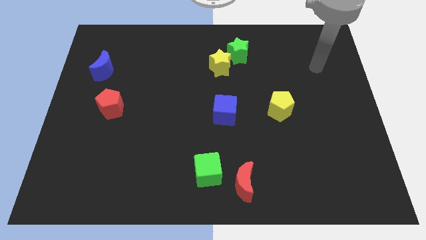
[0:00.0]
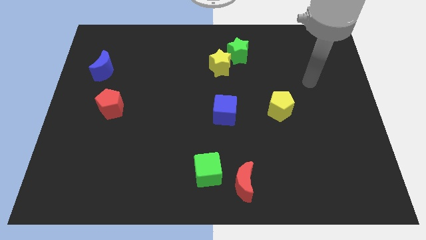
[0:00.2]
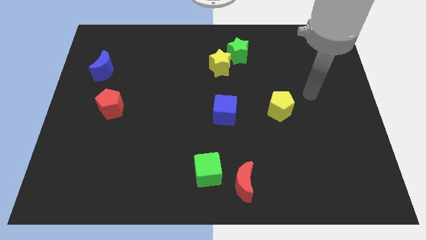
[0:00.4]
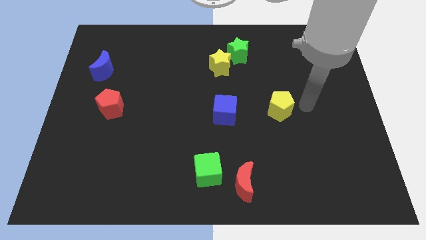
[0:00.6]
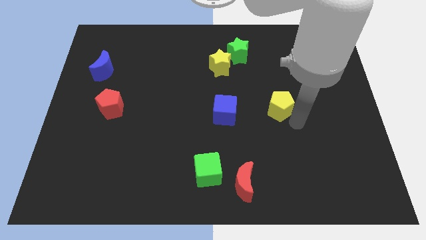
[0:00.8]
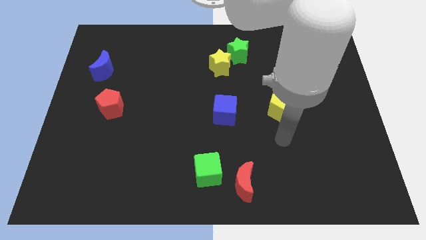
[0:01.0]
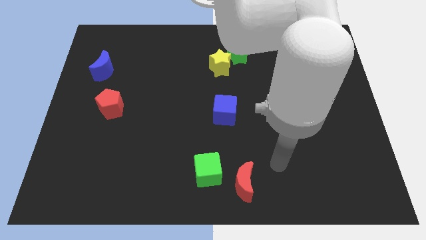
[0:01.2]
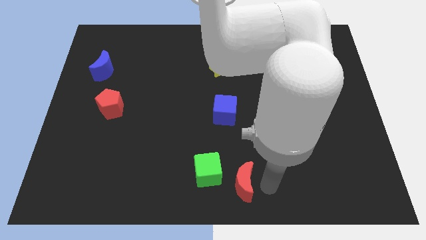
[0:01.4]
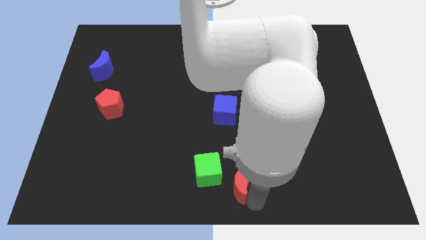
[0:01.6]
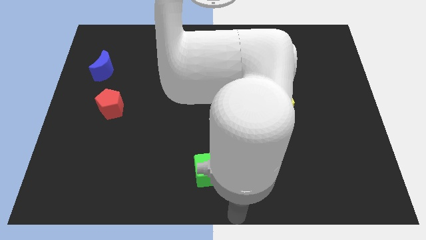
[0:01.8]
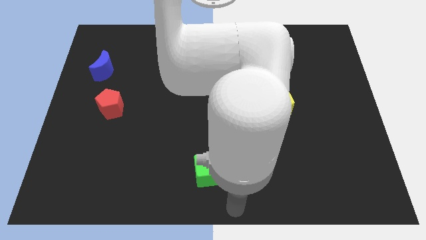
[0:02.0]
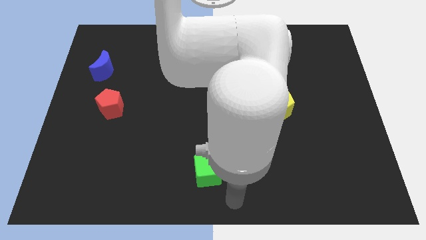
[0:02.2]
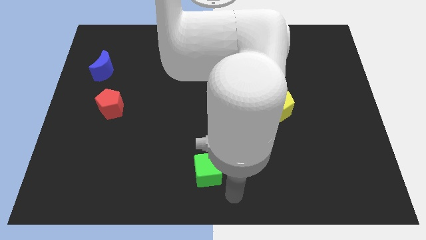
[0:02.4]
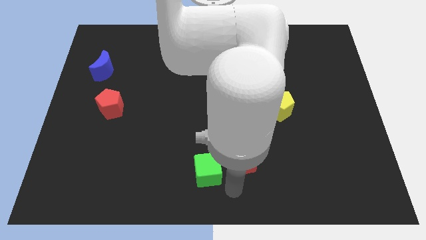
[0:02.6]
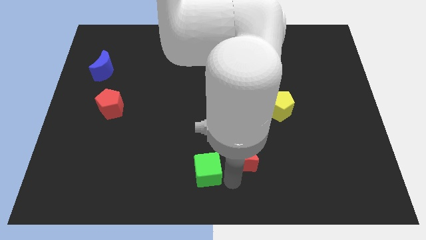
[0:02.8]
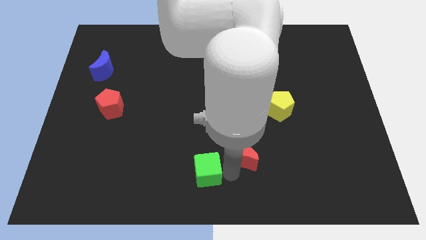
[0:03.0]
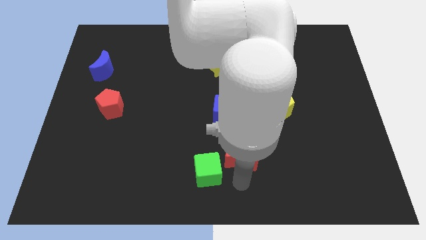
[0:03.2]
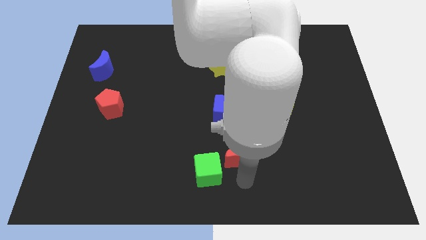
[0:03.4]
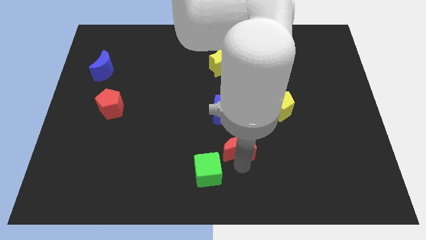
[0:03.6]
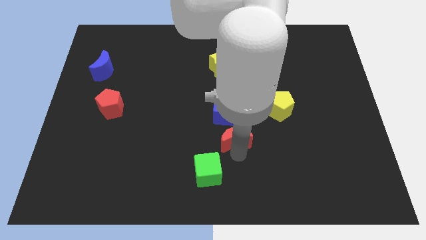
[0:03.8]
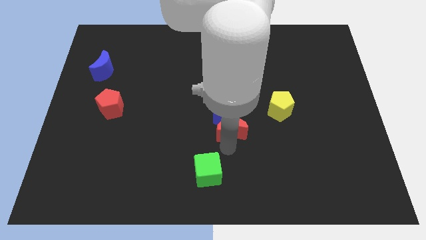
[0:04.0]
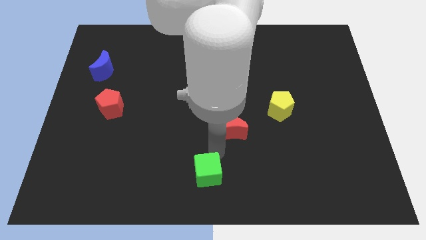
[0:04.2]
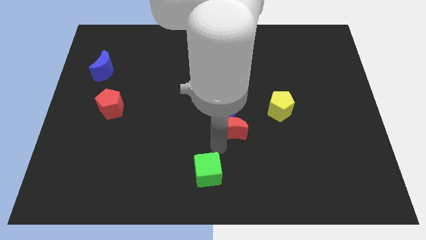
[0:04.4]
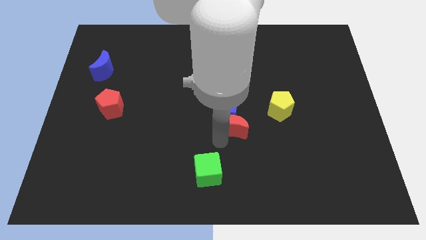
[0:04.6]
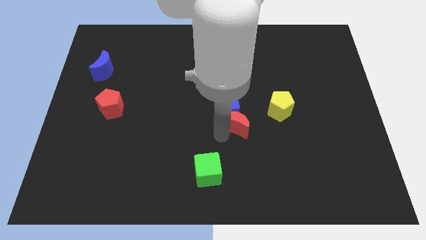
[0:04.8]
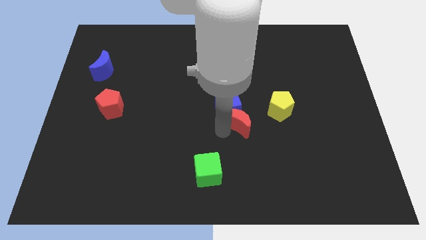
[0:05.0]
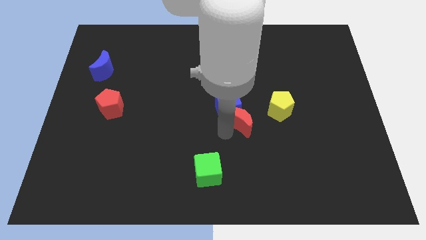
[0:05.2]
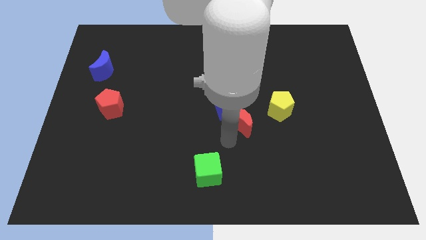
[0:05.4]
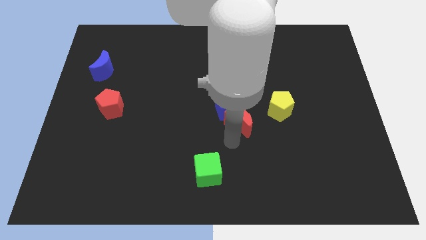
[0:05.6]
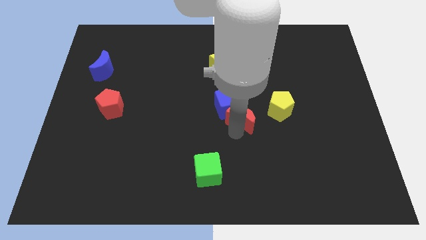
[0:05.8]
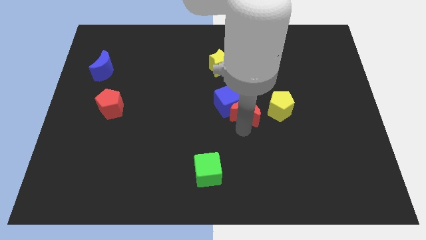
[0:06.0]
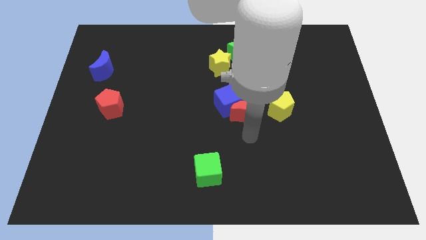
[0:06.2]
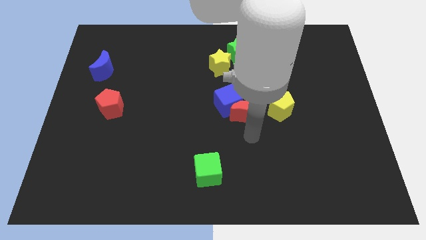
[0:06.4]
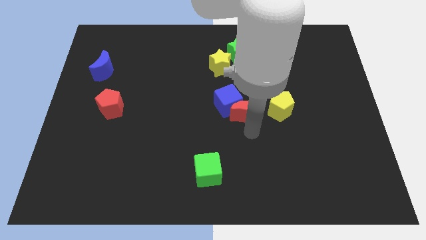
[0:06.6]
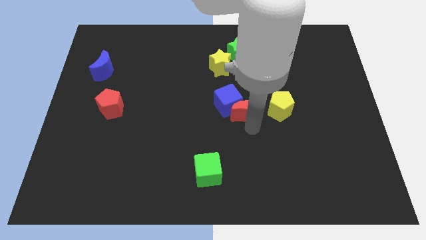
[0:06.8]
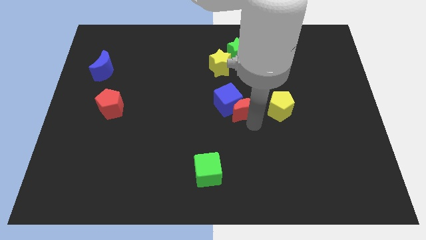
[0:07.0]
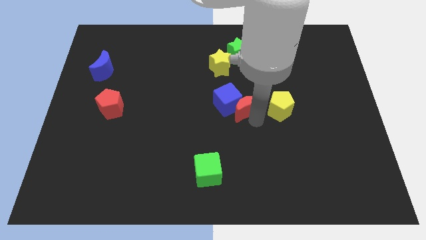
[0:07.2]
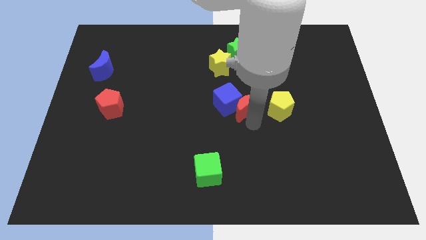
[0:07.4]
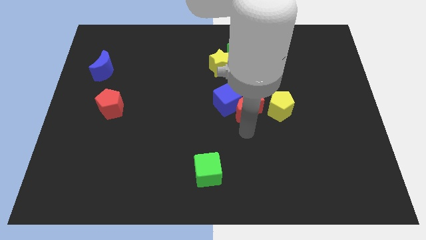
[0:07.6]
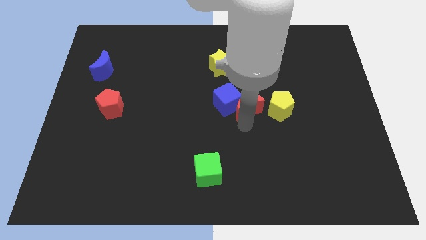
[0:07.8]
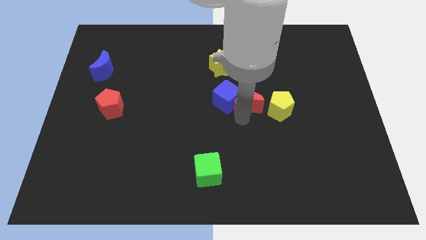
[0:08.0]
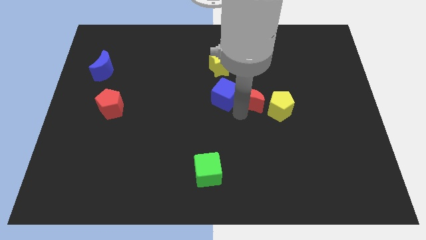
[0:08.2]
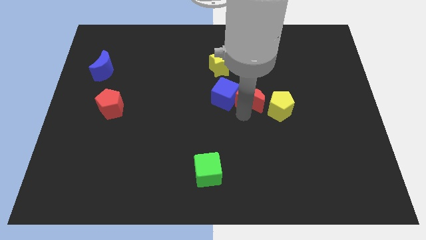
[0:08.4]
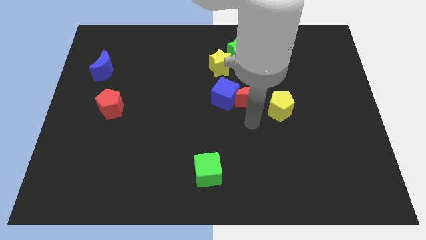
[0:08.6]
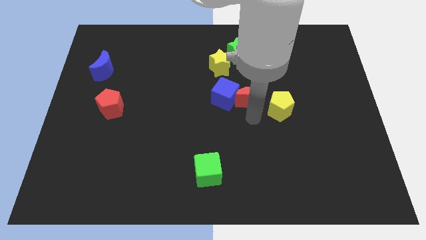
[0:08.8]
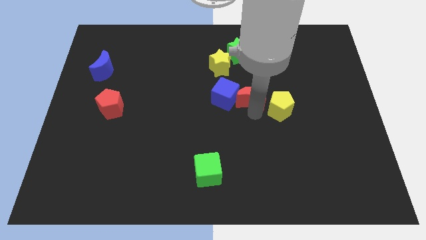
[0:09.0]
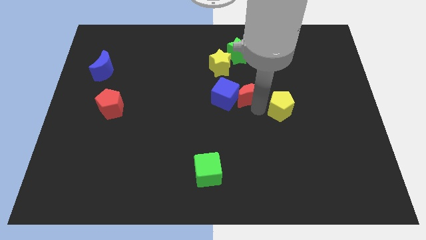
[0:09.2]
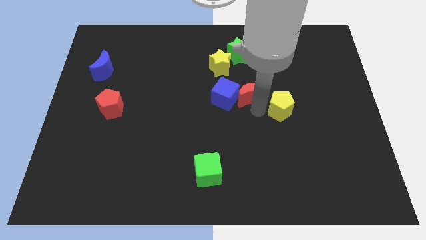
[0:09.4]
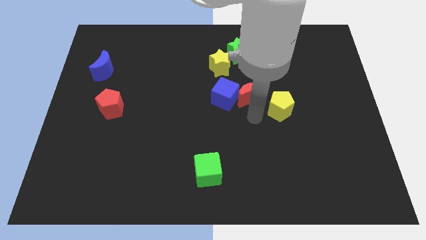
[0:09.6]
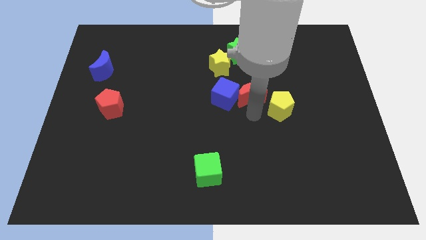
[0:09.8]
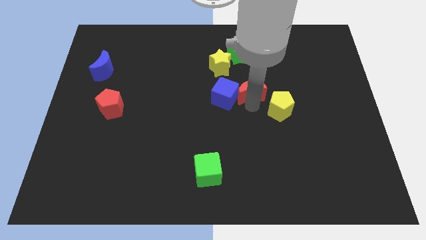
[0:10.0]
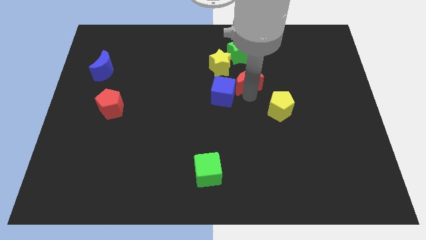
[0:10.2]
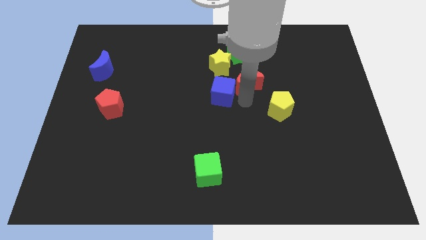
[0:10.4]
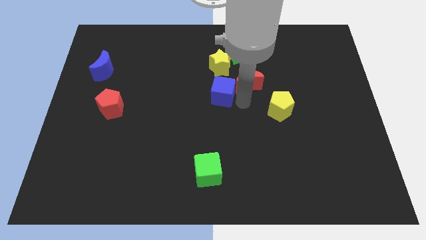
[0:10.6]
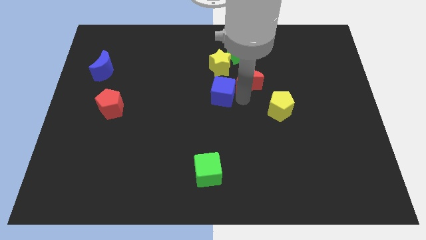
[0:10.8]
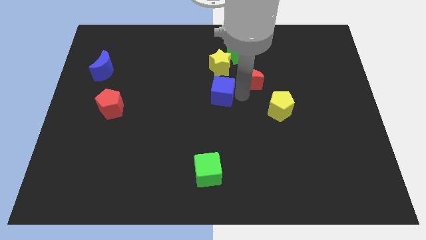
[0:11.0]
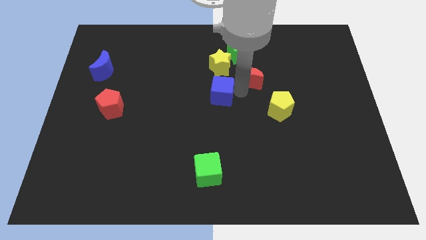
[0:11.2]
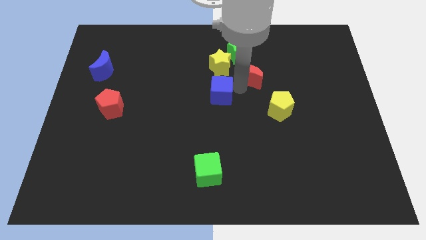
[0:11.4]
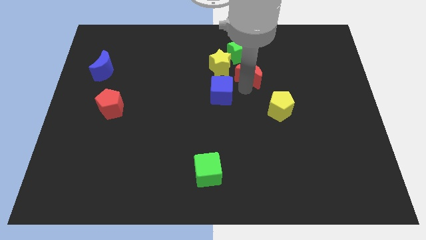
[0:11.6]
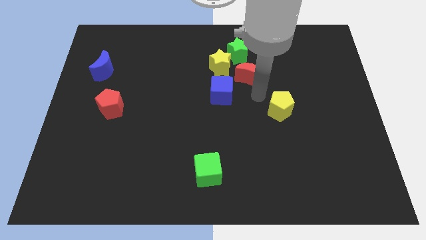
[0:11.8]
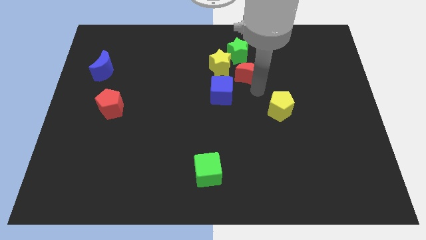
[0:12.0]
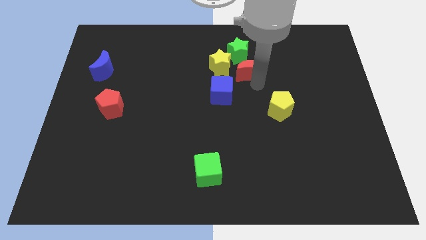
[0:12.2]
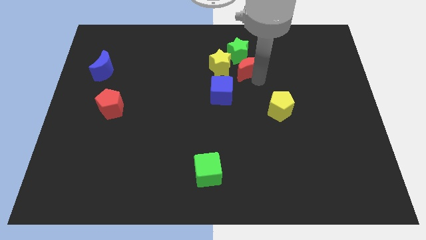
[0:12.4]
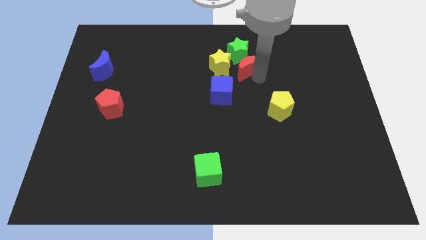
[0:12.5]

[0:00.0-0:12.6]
move the red moon close to the green star

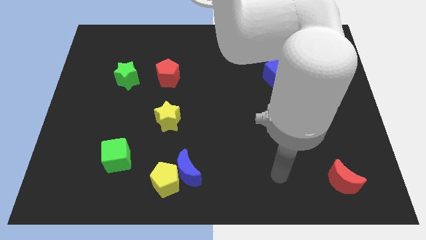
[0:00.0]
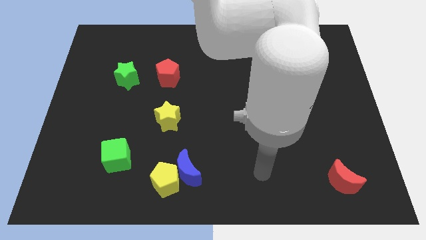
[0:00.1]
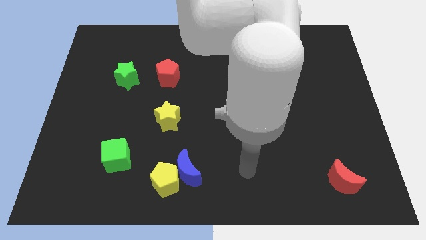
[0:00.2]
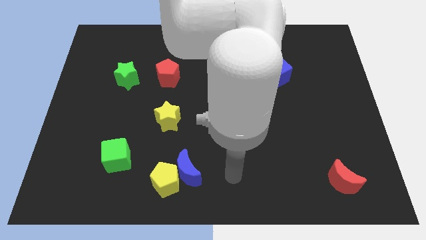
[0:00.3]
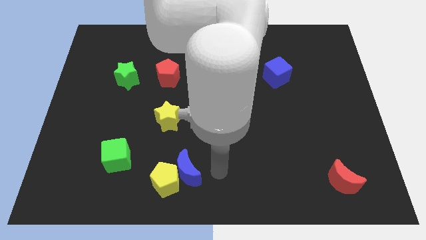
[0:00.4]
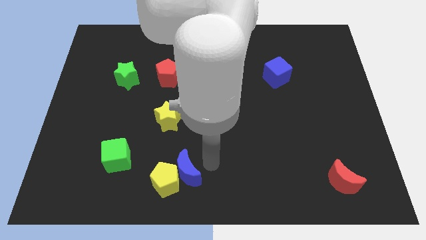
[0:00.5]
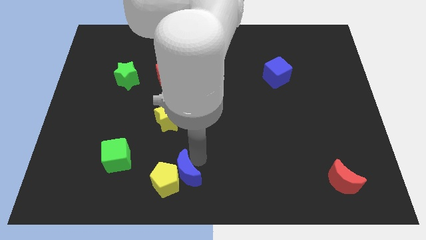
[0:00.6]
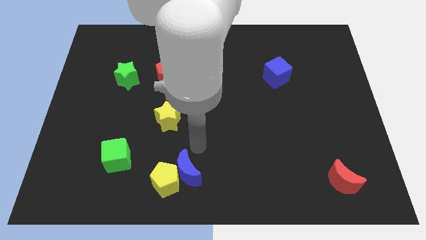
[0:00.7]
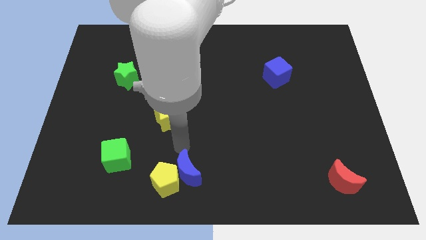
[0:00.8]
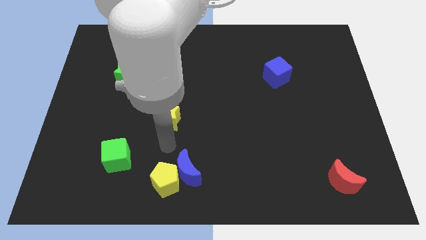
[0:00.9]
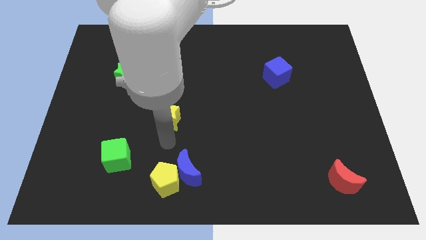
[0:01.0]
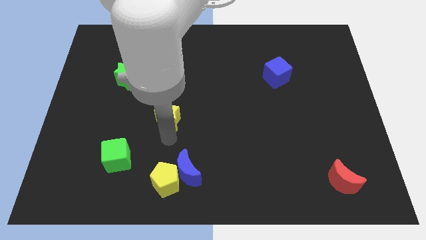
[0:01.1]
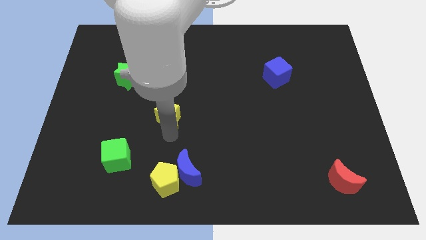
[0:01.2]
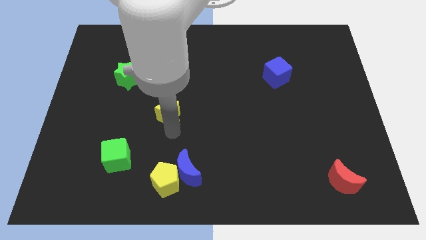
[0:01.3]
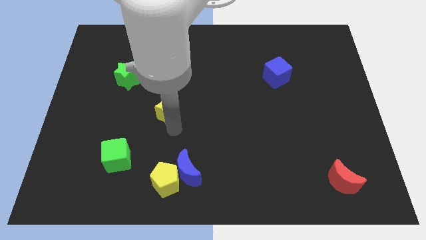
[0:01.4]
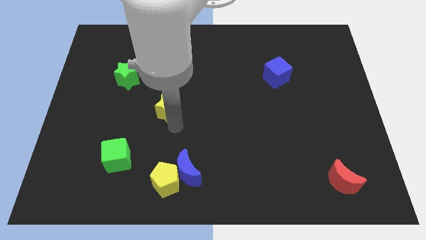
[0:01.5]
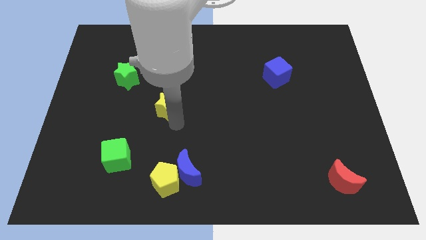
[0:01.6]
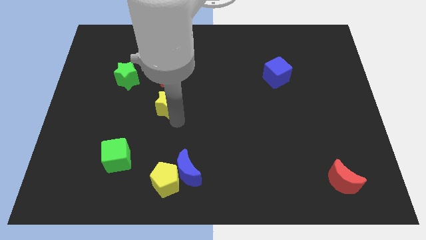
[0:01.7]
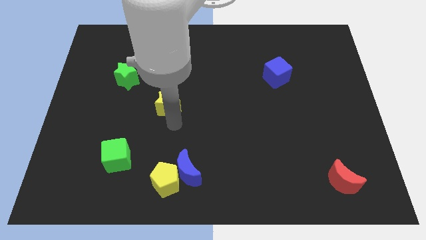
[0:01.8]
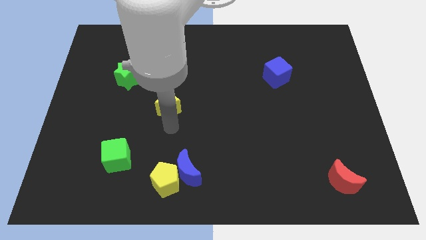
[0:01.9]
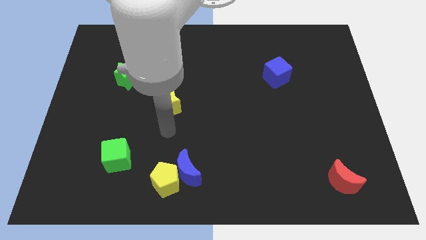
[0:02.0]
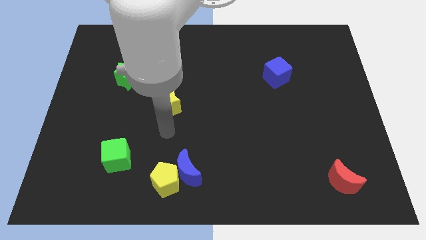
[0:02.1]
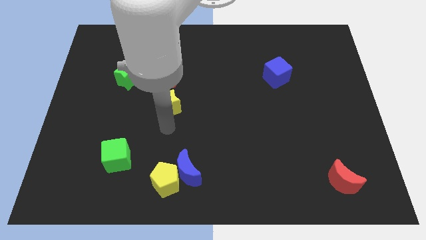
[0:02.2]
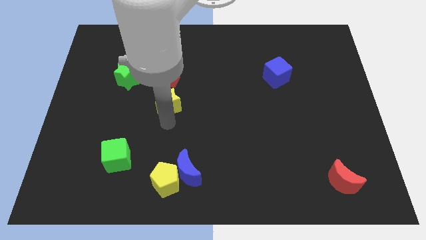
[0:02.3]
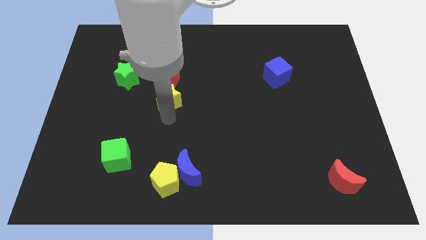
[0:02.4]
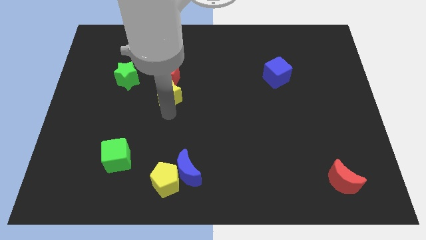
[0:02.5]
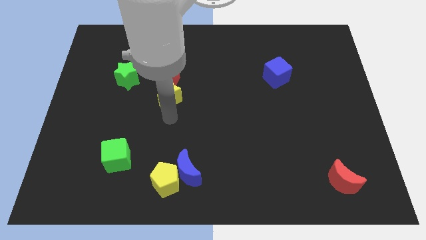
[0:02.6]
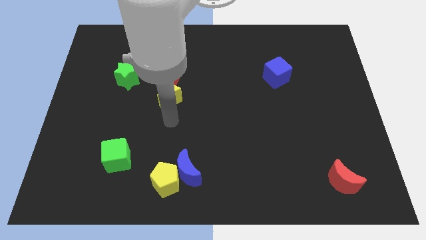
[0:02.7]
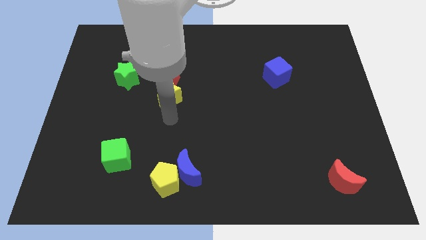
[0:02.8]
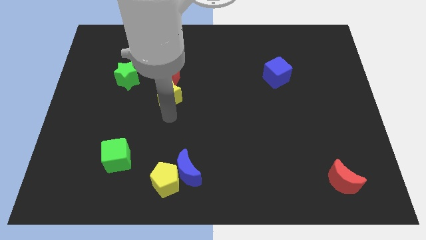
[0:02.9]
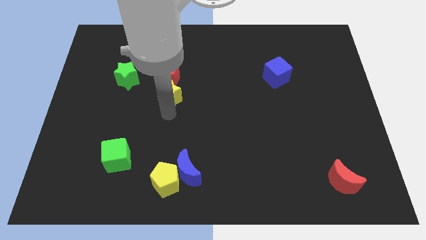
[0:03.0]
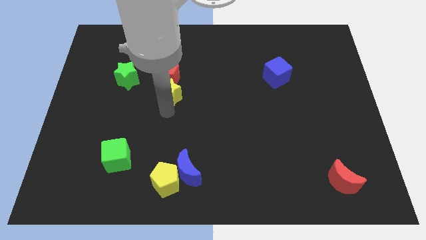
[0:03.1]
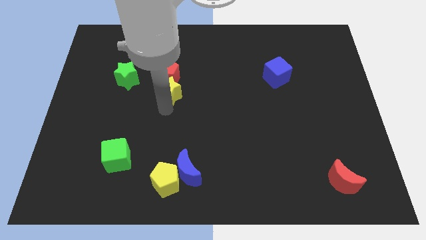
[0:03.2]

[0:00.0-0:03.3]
push the yellow star next to the red pentagon
